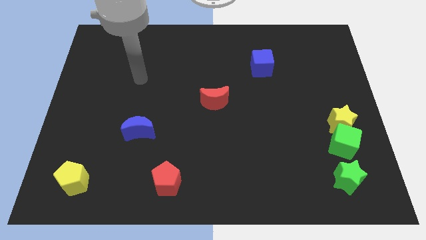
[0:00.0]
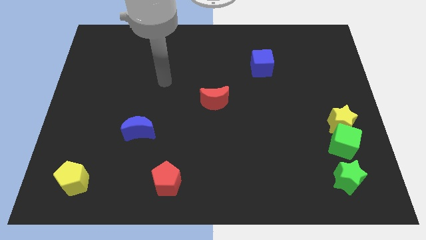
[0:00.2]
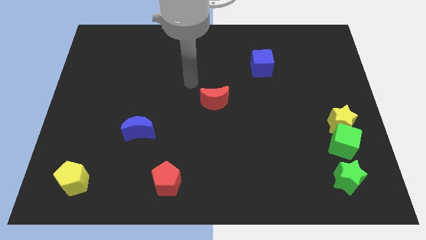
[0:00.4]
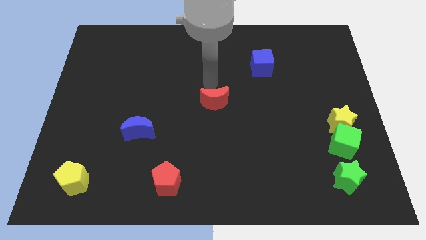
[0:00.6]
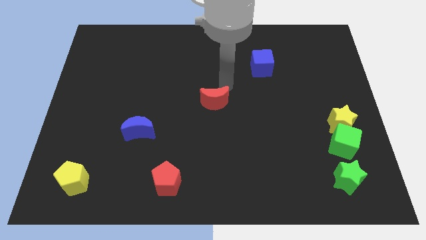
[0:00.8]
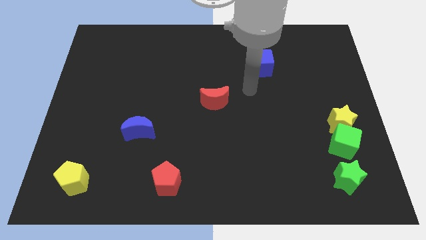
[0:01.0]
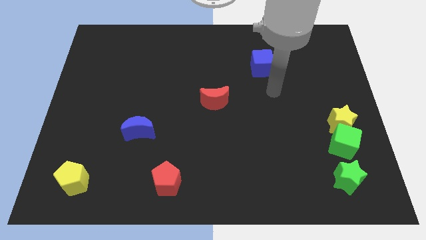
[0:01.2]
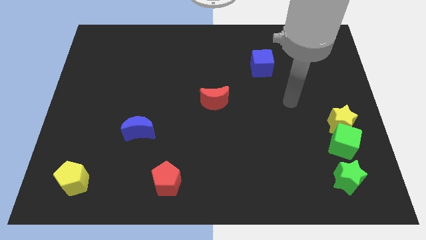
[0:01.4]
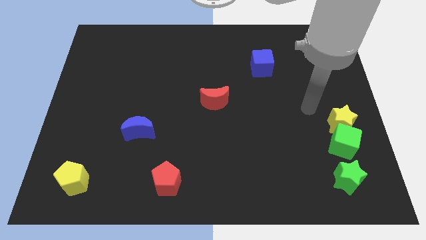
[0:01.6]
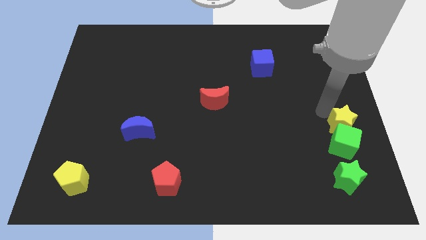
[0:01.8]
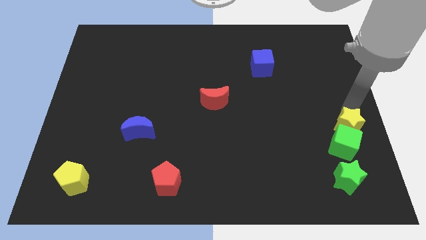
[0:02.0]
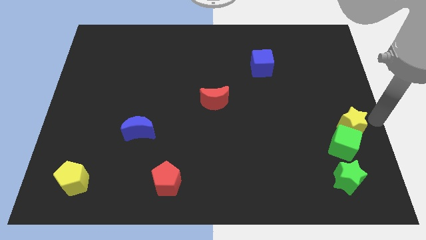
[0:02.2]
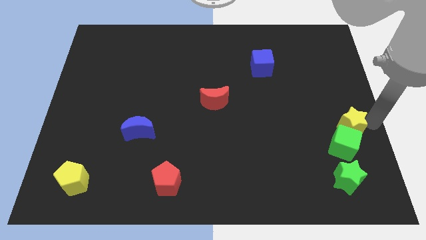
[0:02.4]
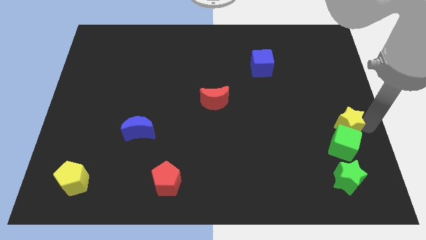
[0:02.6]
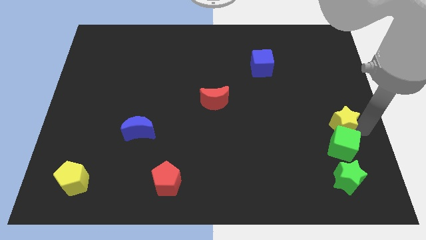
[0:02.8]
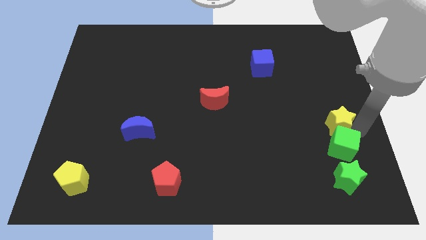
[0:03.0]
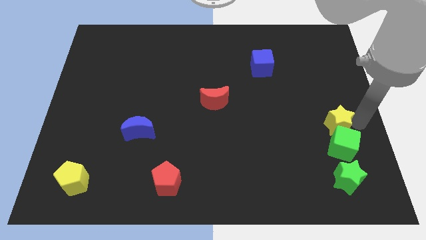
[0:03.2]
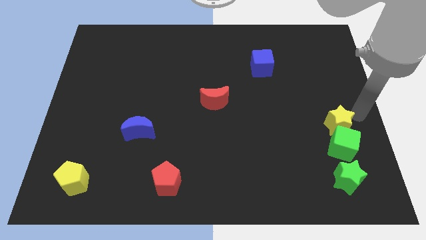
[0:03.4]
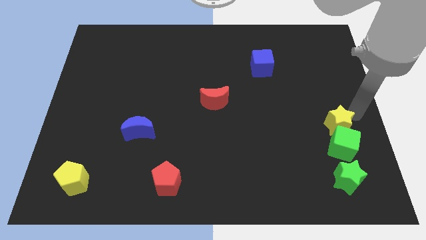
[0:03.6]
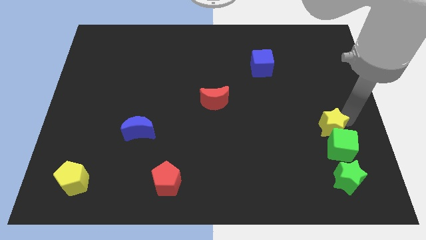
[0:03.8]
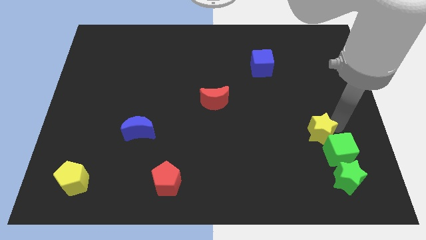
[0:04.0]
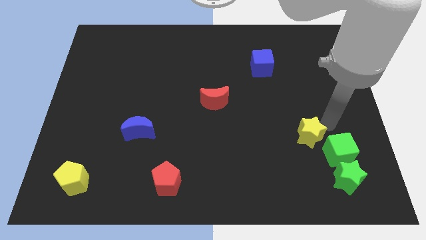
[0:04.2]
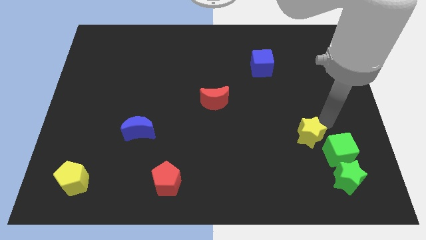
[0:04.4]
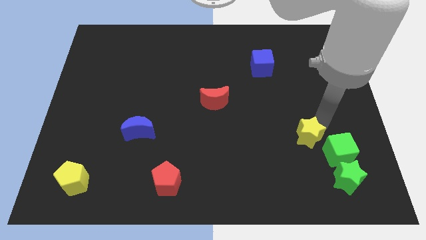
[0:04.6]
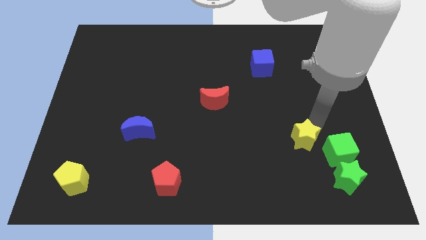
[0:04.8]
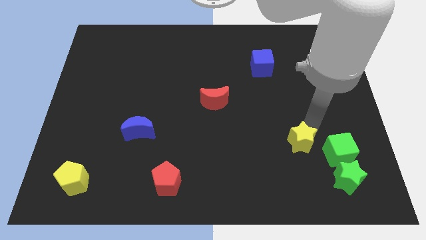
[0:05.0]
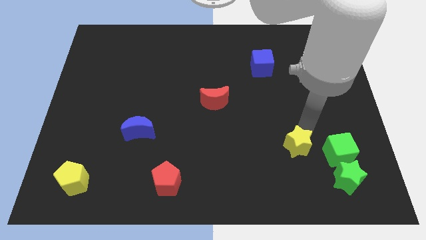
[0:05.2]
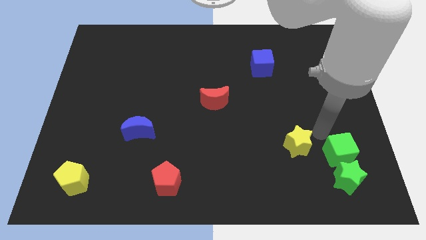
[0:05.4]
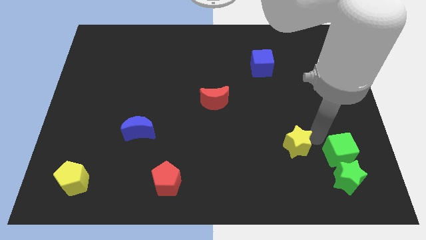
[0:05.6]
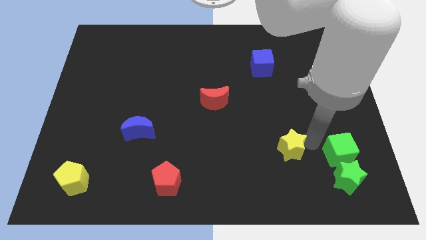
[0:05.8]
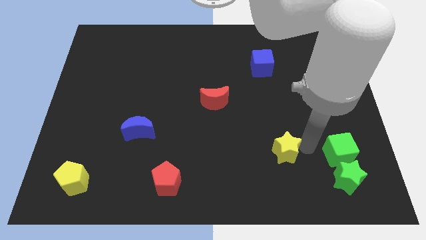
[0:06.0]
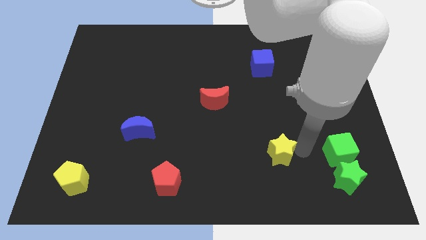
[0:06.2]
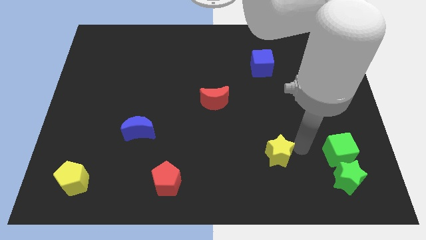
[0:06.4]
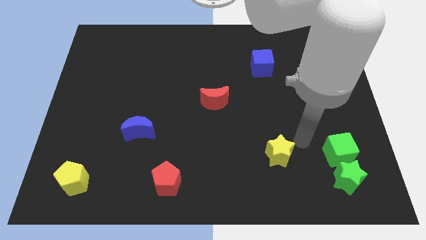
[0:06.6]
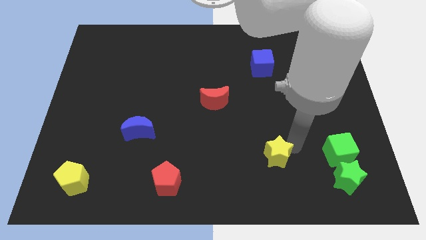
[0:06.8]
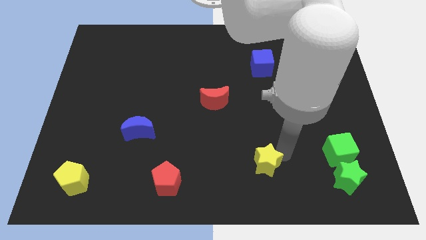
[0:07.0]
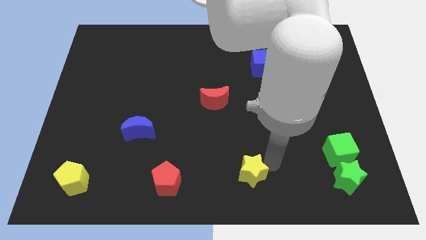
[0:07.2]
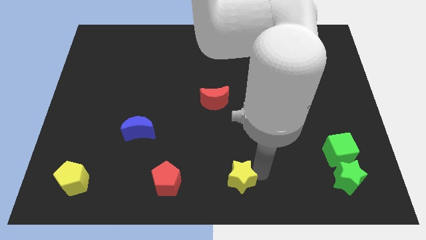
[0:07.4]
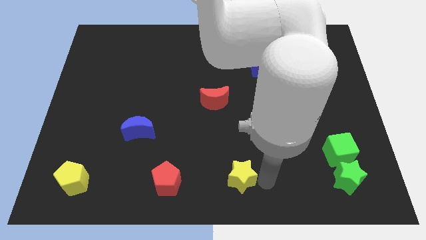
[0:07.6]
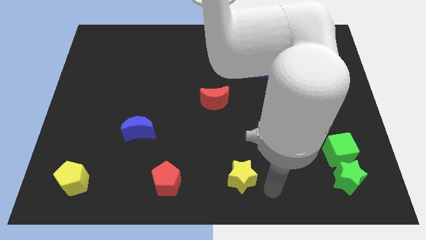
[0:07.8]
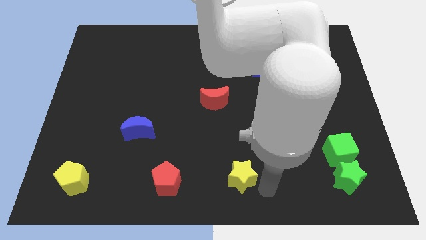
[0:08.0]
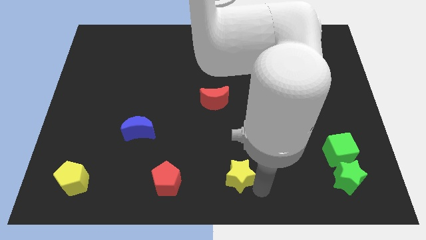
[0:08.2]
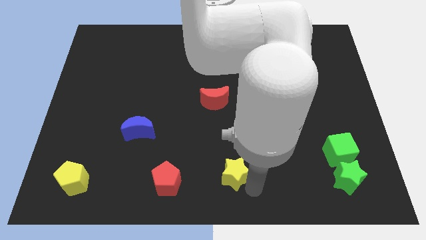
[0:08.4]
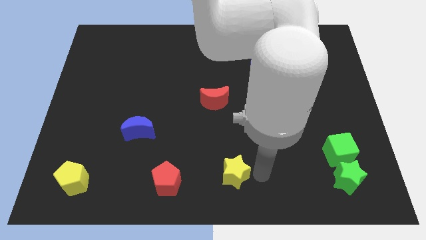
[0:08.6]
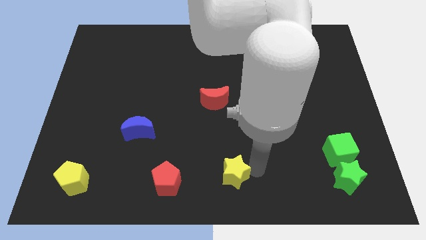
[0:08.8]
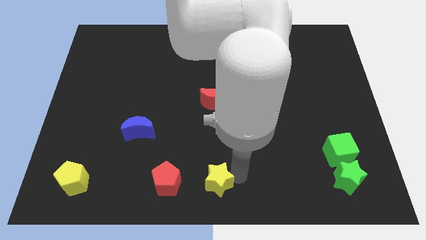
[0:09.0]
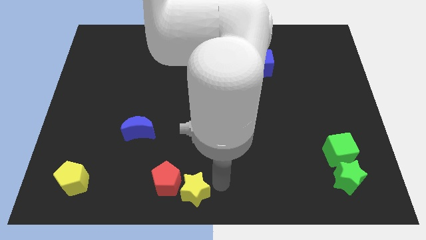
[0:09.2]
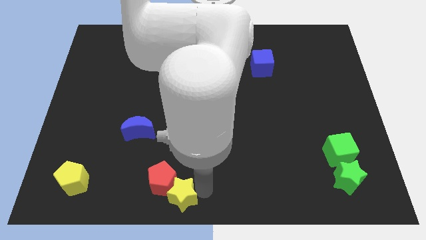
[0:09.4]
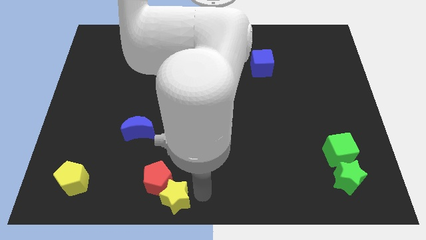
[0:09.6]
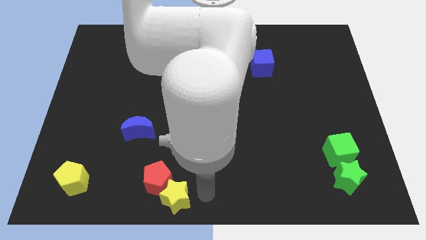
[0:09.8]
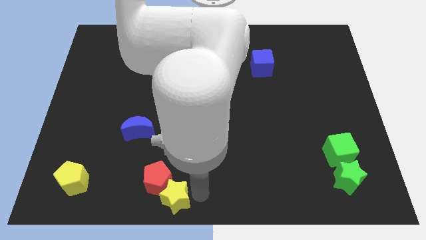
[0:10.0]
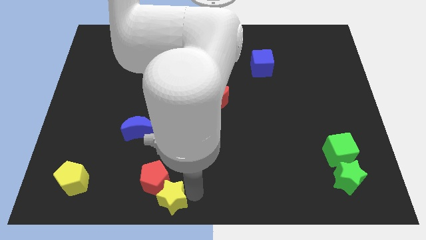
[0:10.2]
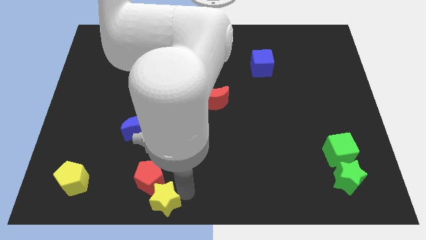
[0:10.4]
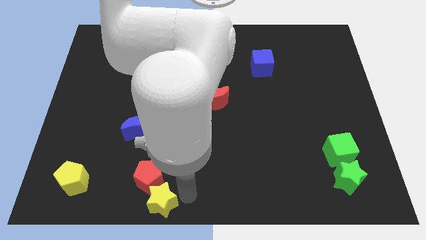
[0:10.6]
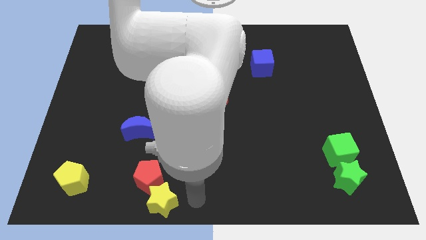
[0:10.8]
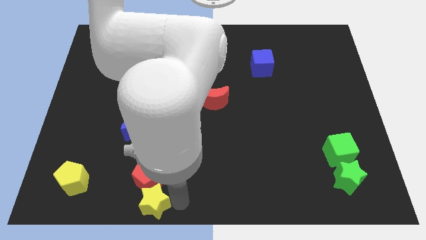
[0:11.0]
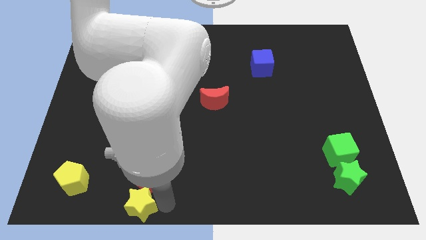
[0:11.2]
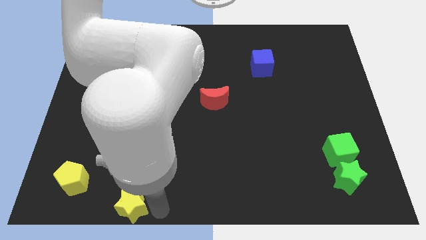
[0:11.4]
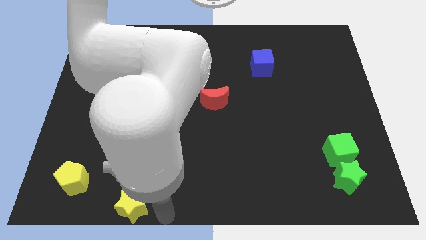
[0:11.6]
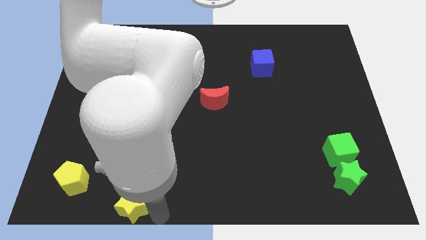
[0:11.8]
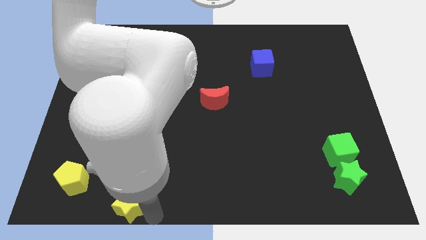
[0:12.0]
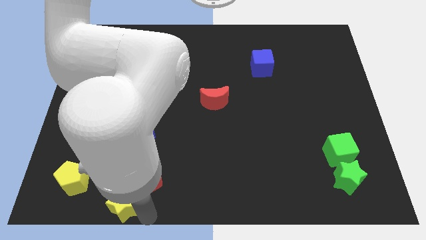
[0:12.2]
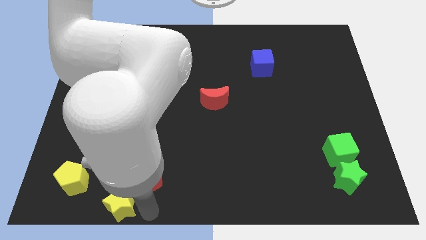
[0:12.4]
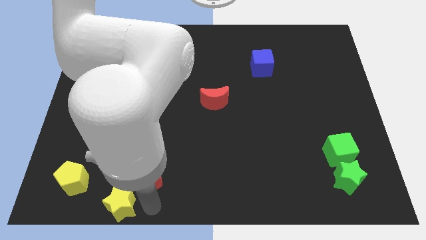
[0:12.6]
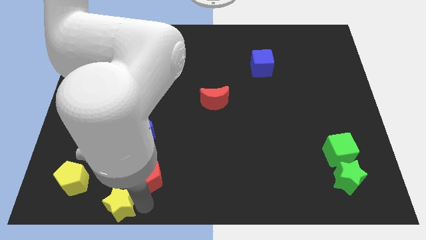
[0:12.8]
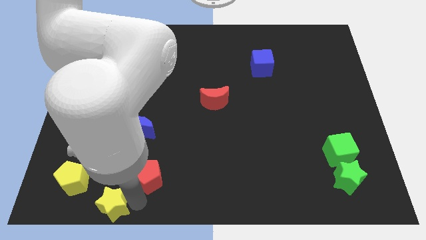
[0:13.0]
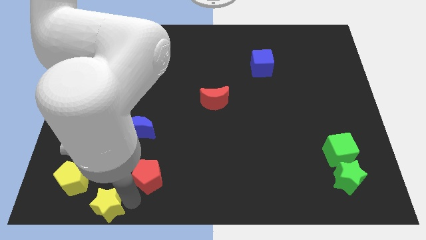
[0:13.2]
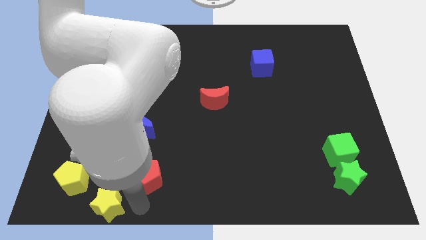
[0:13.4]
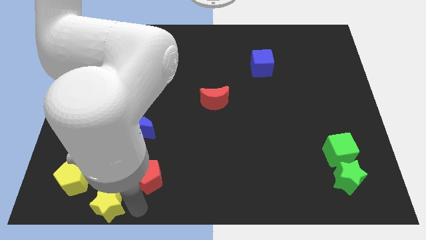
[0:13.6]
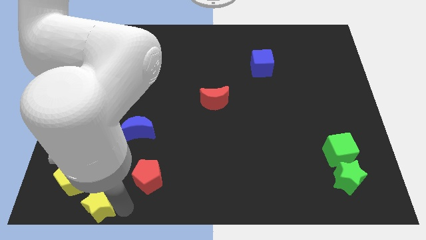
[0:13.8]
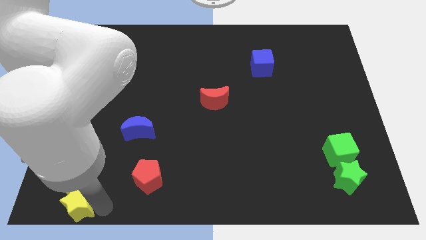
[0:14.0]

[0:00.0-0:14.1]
move the yellow star to the bottom left
